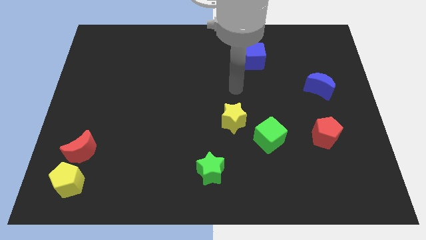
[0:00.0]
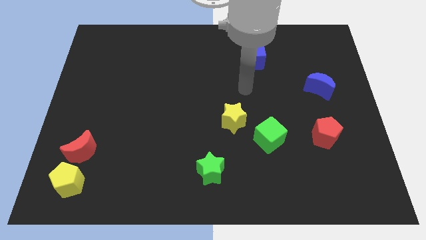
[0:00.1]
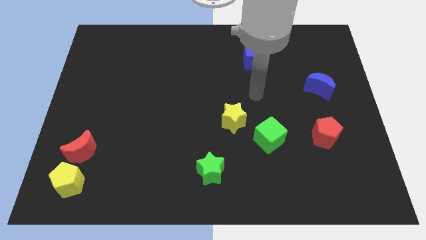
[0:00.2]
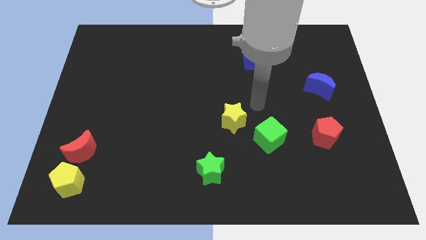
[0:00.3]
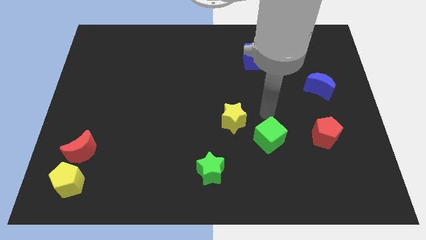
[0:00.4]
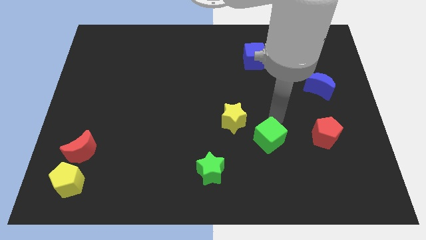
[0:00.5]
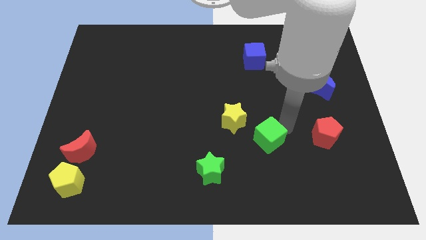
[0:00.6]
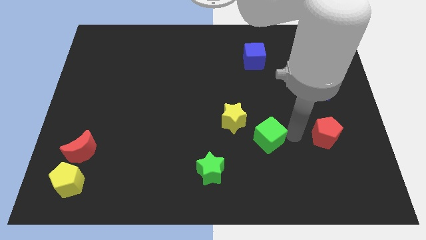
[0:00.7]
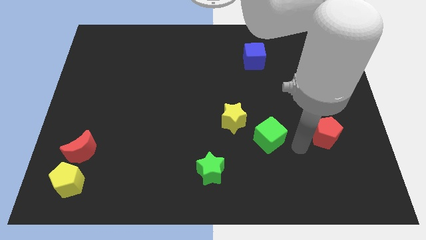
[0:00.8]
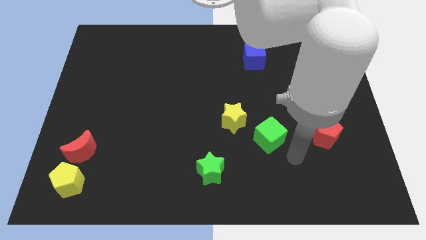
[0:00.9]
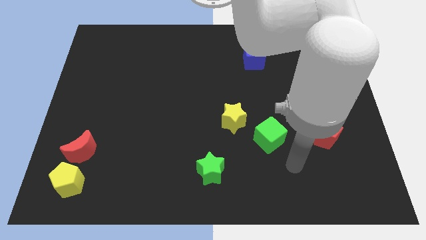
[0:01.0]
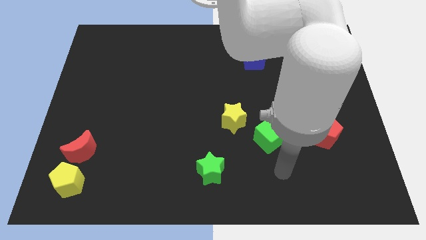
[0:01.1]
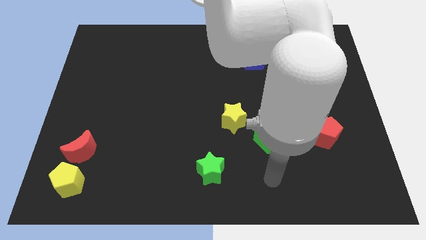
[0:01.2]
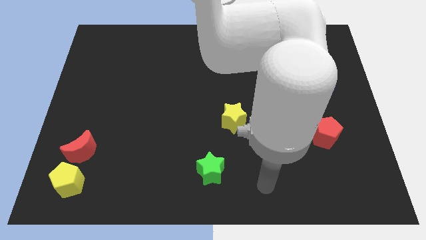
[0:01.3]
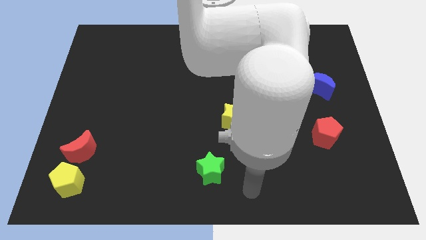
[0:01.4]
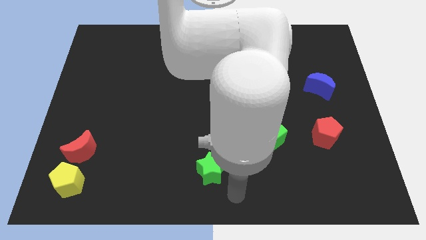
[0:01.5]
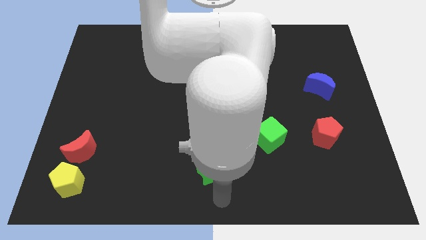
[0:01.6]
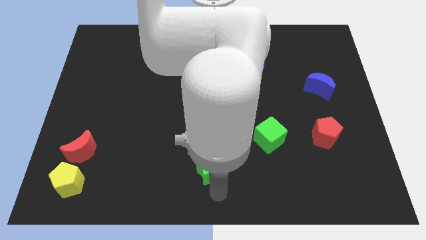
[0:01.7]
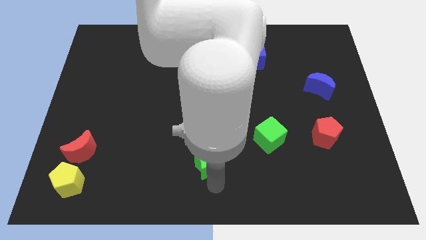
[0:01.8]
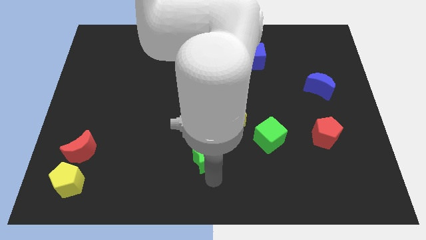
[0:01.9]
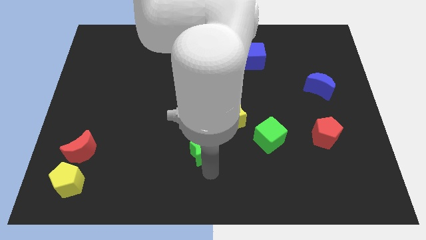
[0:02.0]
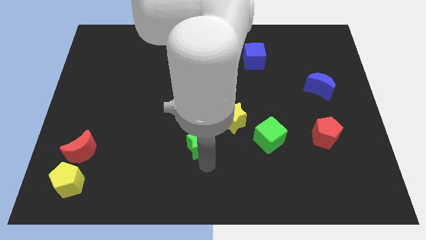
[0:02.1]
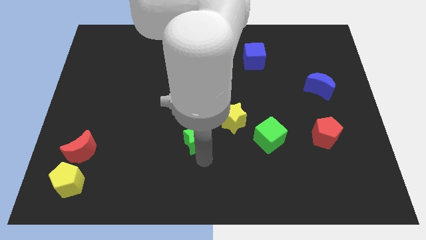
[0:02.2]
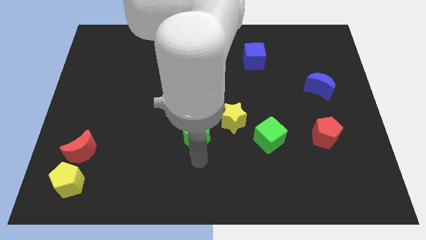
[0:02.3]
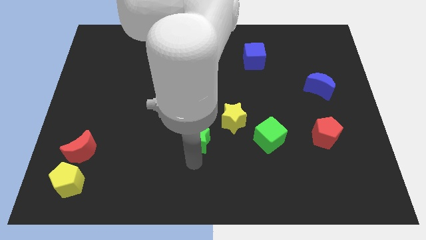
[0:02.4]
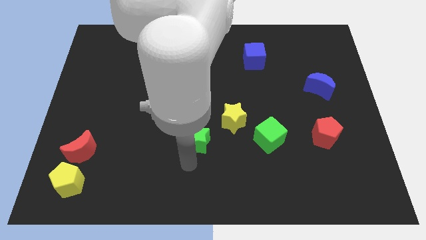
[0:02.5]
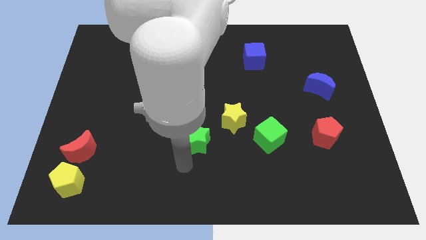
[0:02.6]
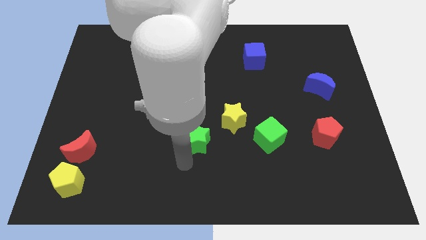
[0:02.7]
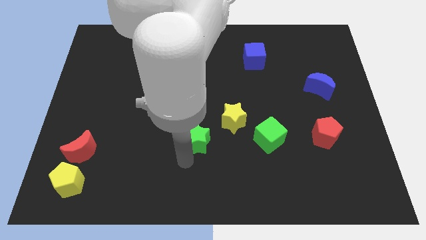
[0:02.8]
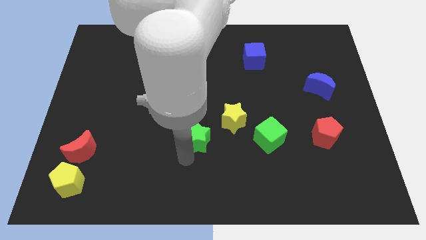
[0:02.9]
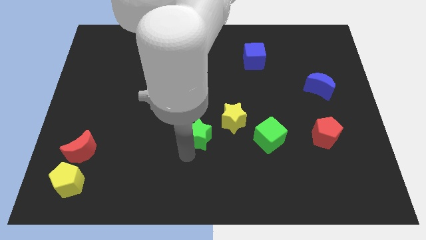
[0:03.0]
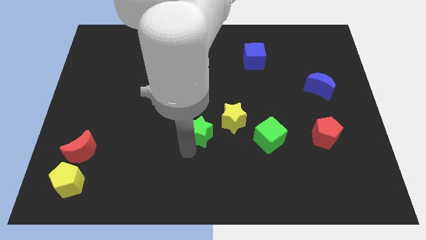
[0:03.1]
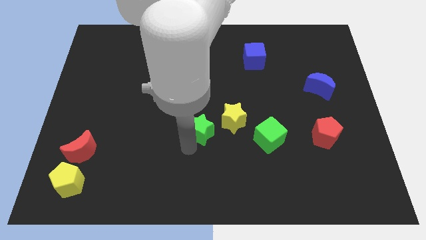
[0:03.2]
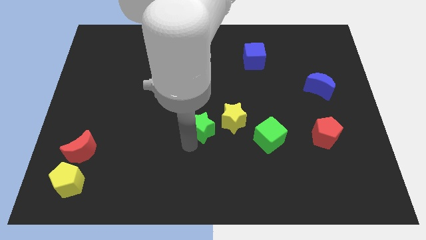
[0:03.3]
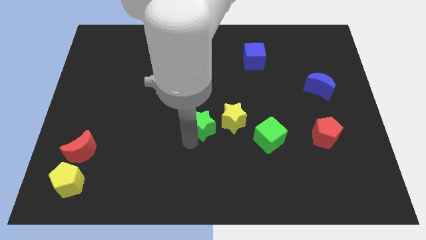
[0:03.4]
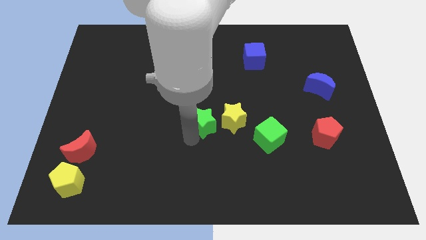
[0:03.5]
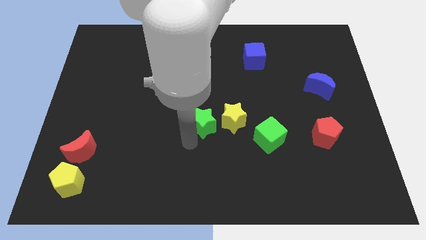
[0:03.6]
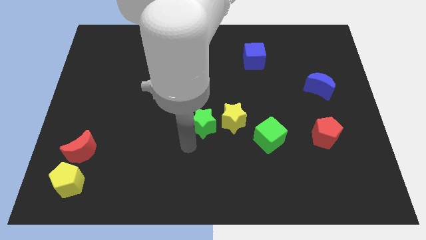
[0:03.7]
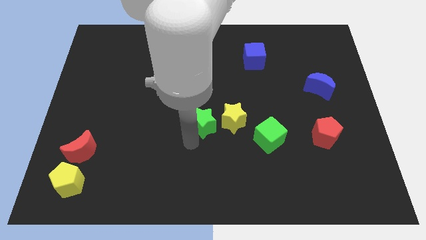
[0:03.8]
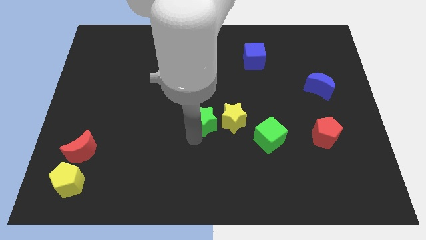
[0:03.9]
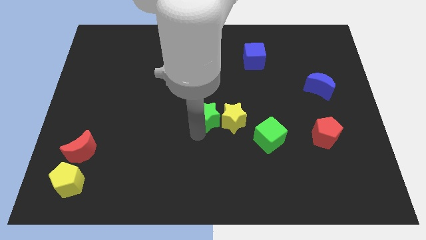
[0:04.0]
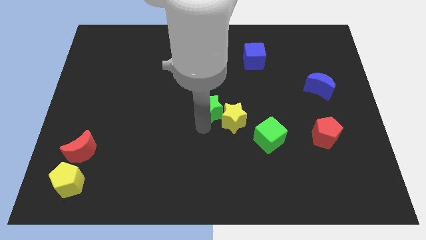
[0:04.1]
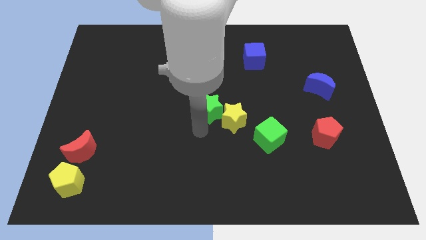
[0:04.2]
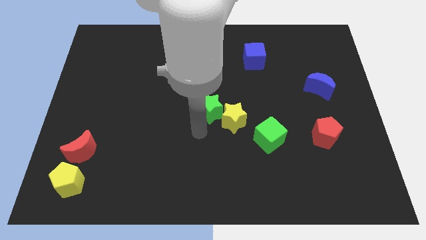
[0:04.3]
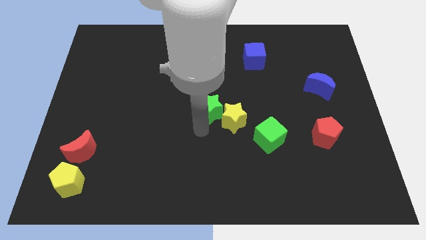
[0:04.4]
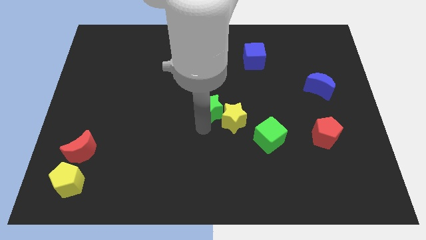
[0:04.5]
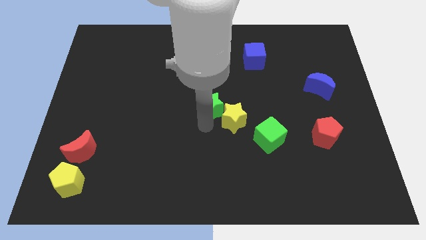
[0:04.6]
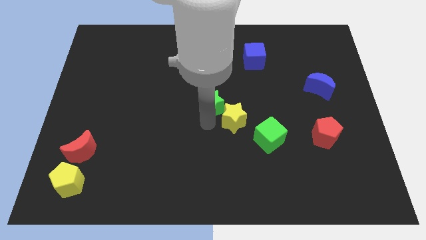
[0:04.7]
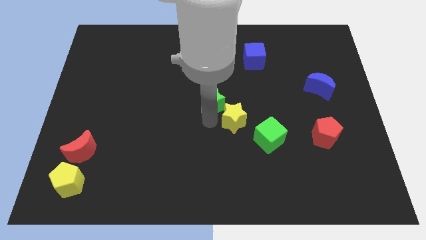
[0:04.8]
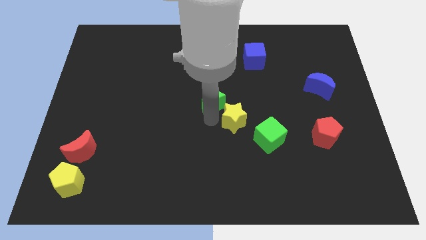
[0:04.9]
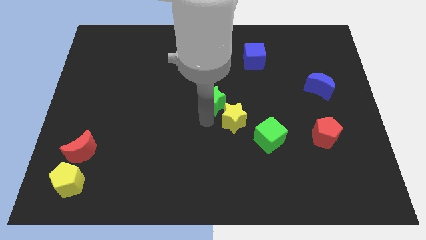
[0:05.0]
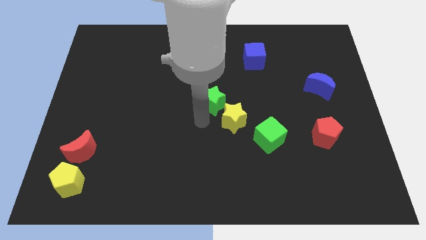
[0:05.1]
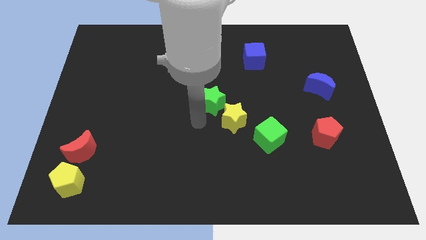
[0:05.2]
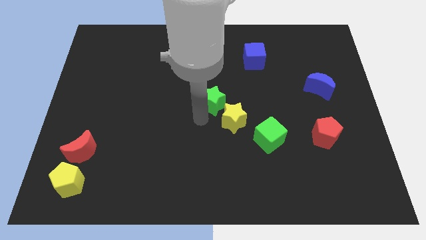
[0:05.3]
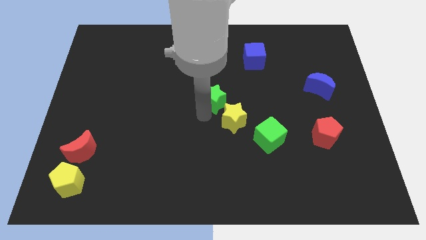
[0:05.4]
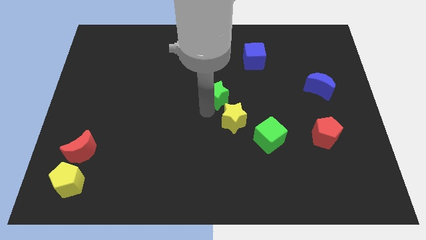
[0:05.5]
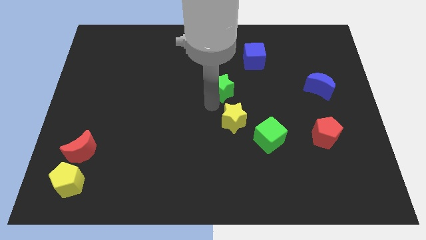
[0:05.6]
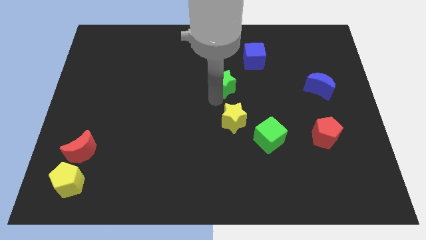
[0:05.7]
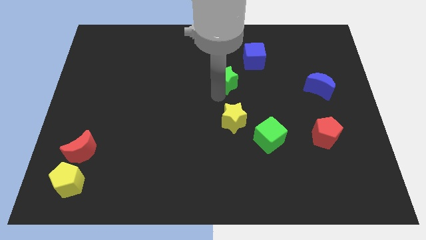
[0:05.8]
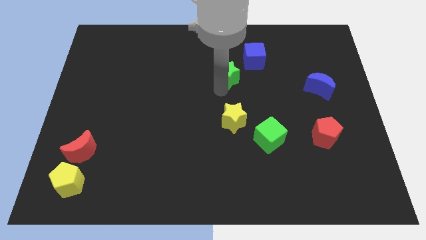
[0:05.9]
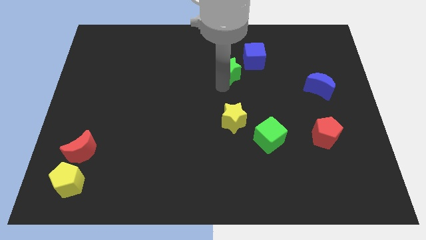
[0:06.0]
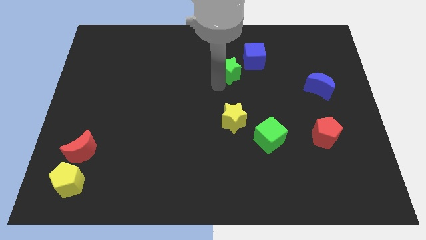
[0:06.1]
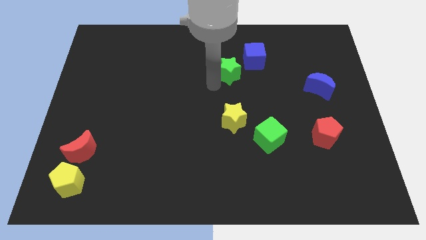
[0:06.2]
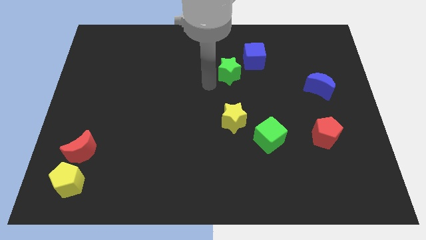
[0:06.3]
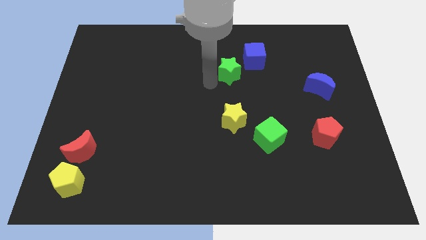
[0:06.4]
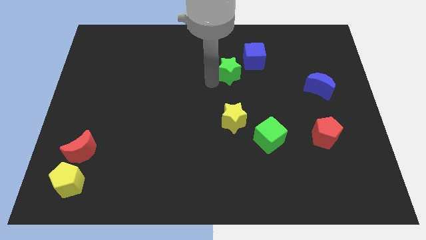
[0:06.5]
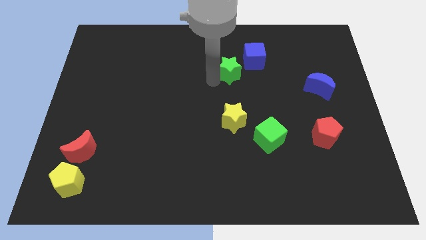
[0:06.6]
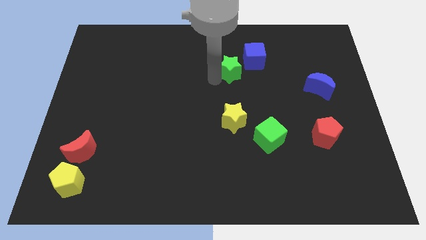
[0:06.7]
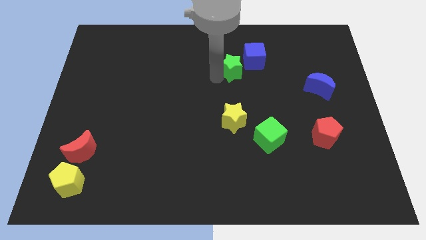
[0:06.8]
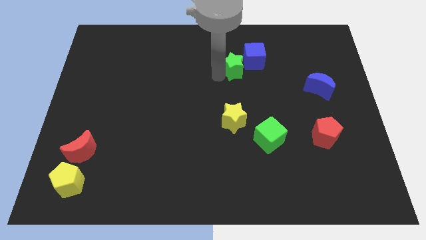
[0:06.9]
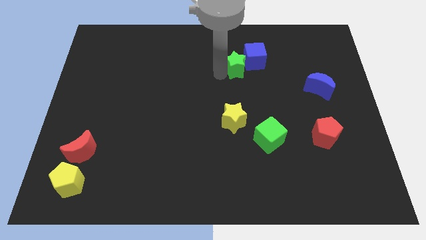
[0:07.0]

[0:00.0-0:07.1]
put the green star towards the blue cube
